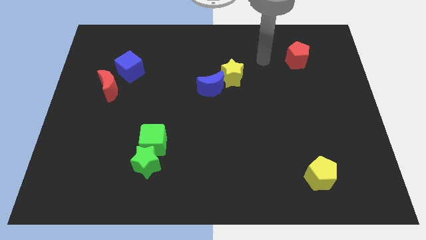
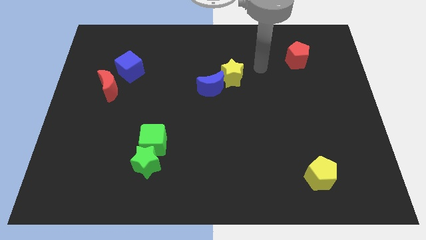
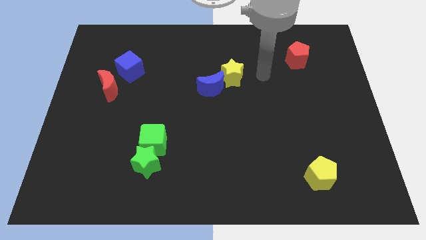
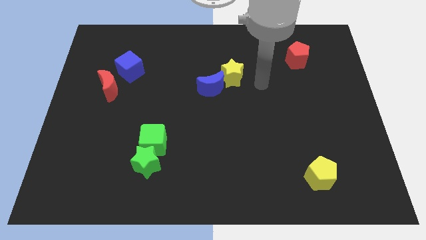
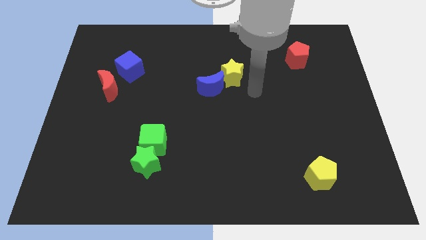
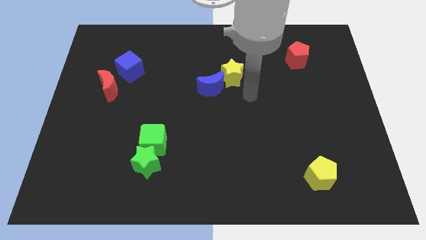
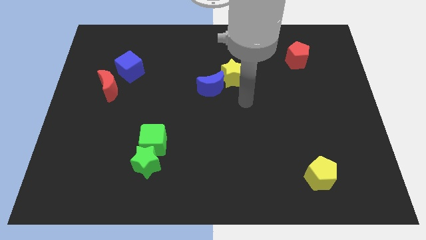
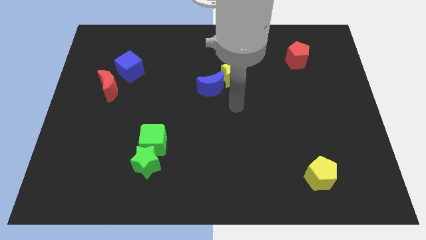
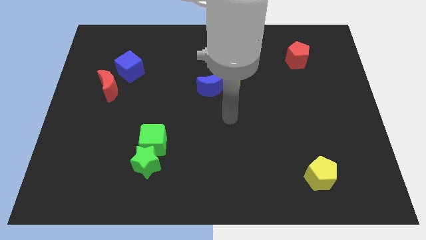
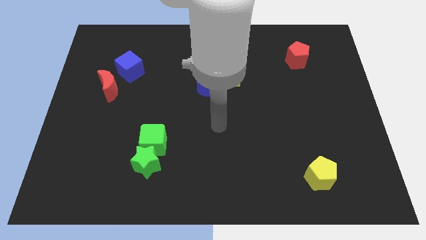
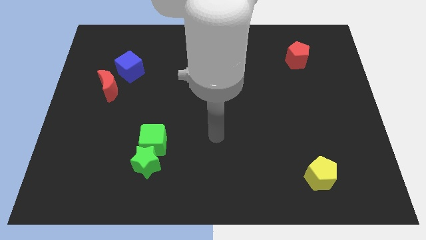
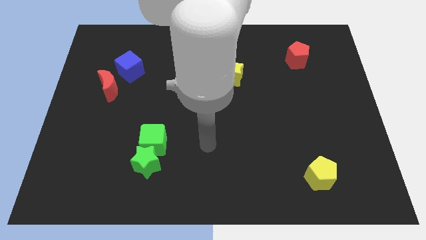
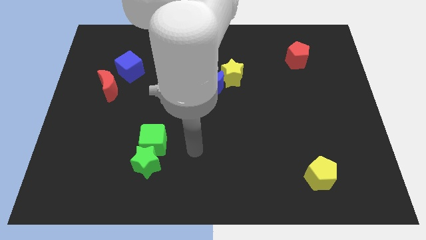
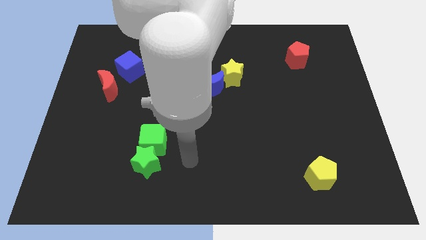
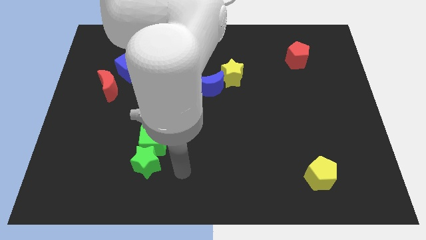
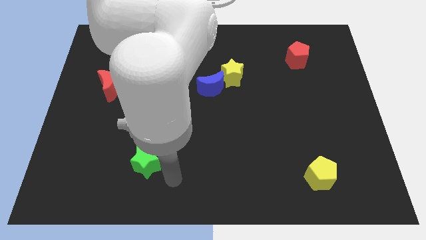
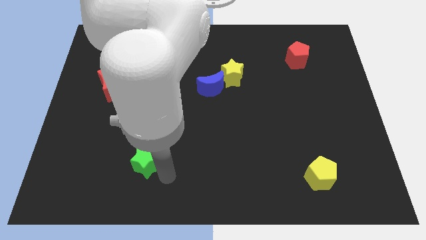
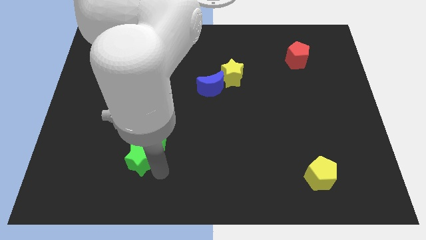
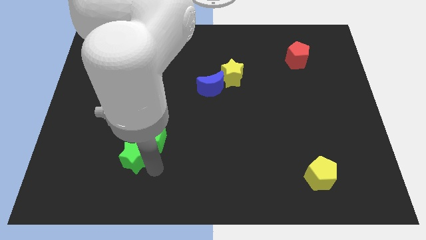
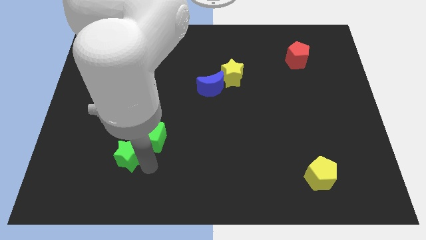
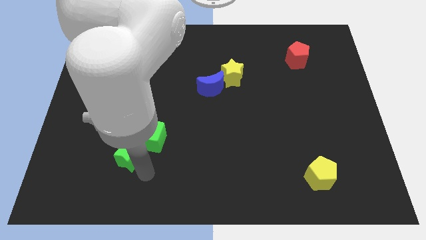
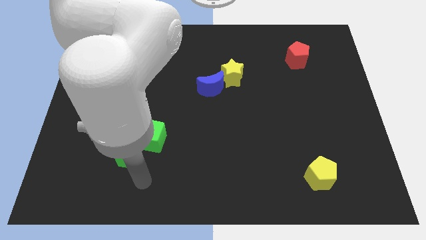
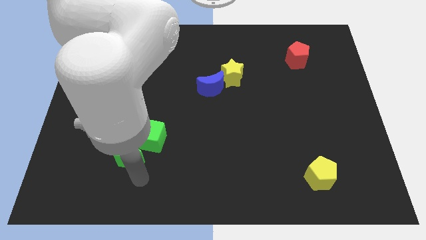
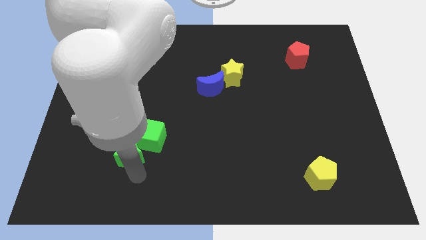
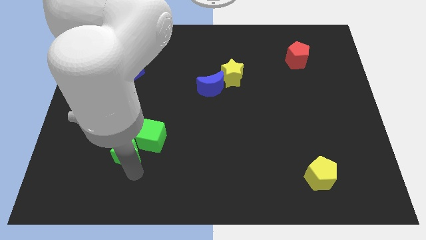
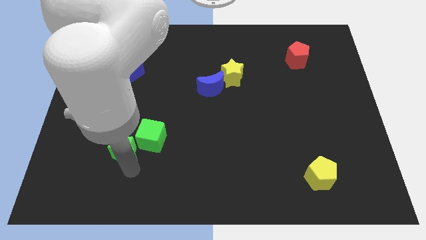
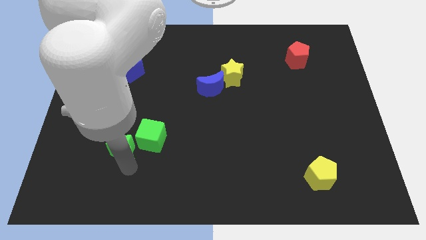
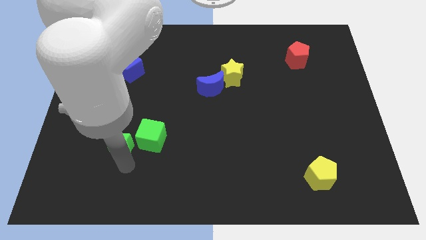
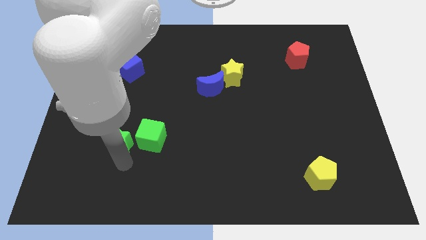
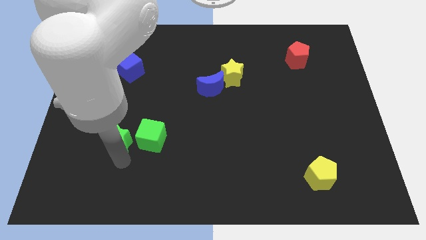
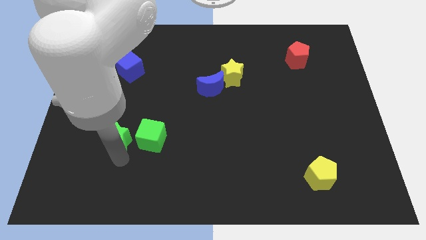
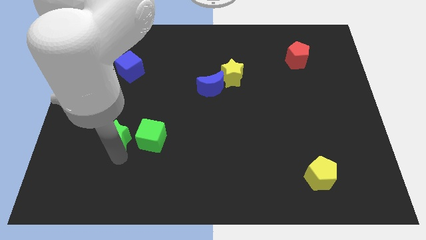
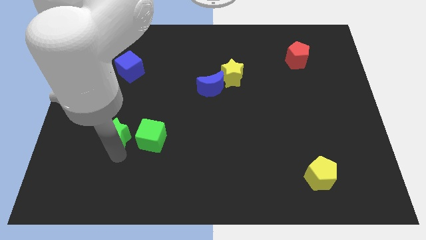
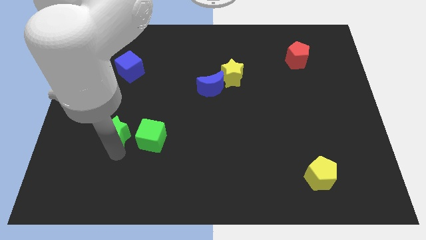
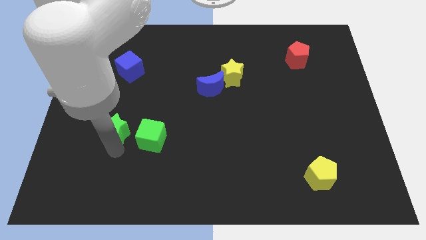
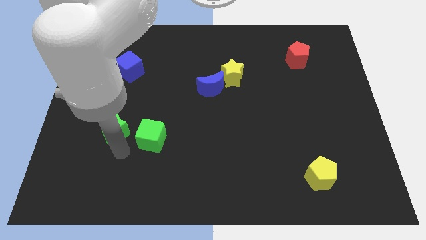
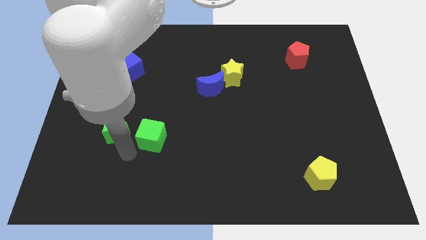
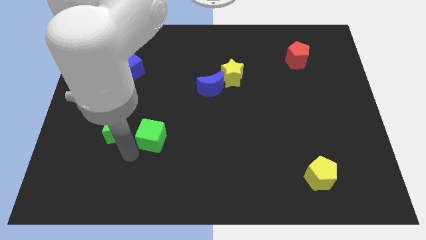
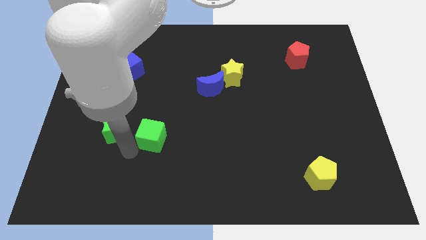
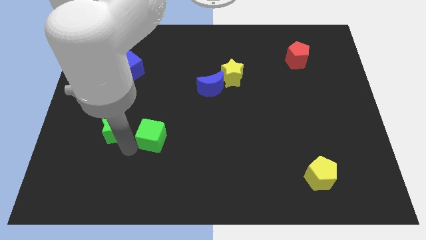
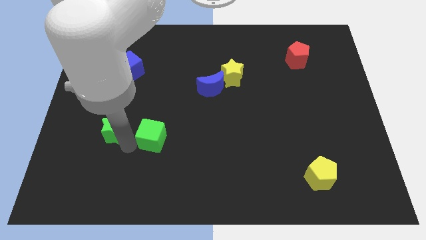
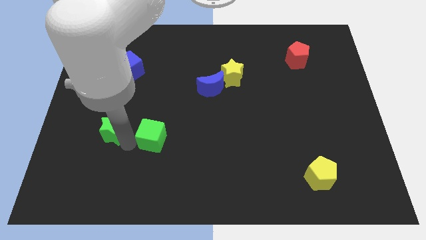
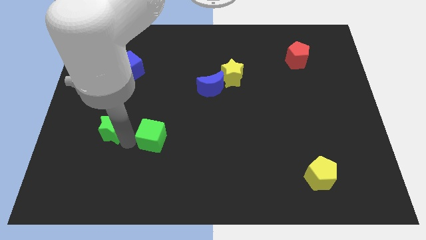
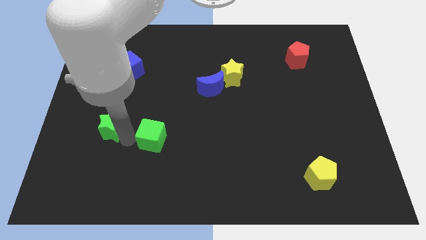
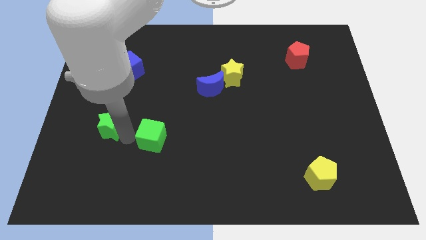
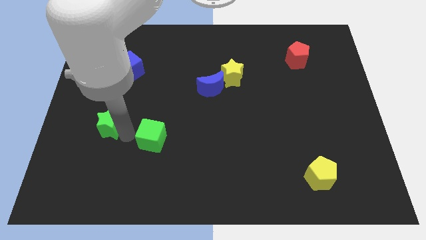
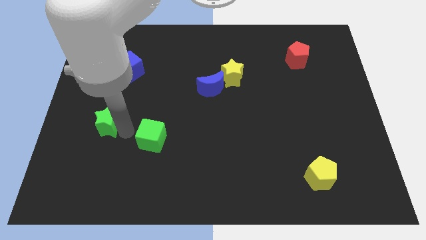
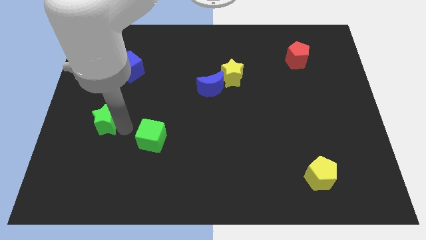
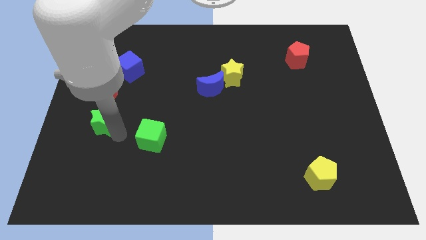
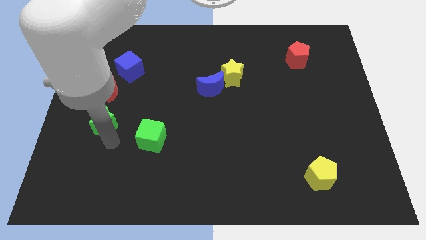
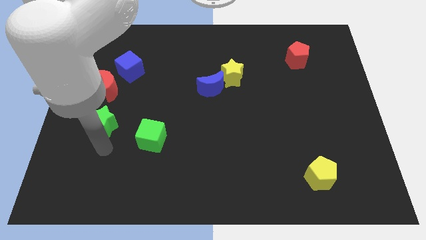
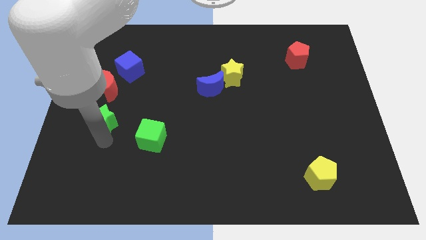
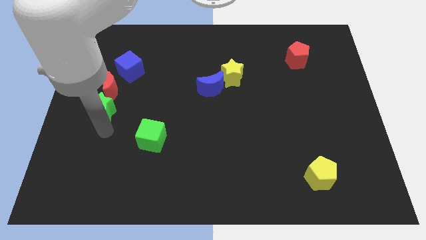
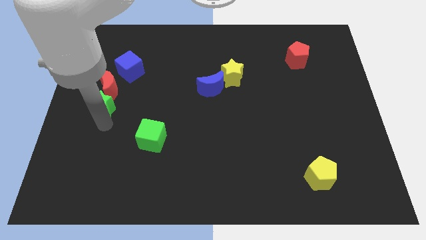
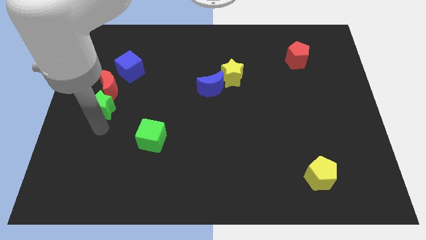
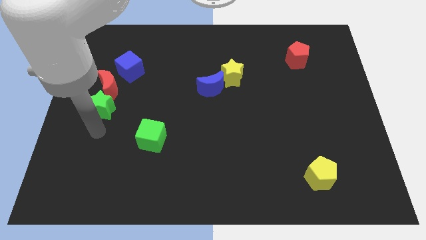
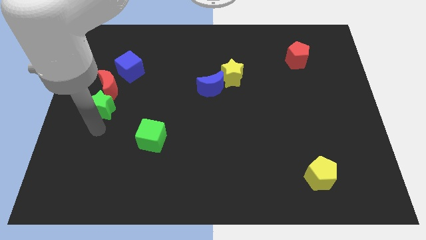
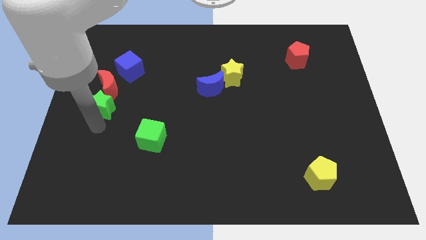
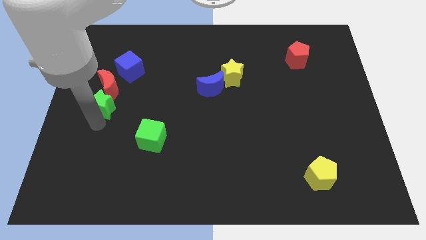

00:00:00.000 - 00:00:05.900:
put the green star close to the red moon

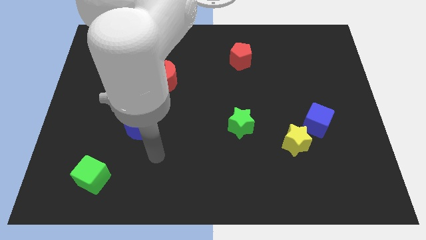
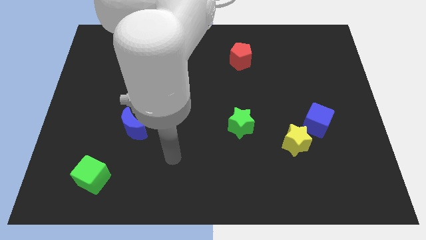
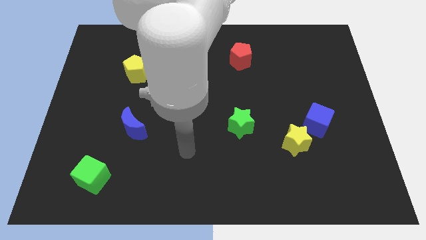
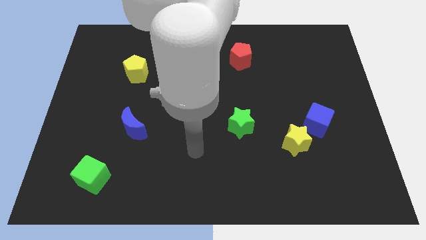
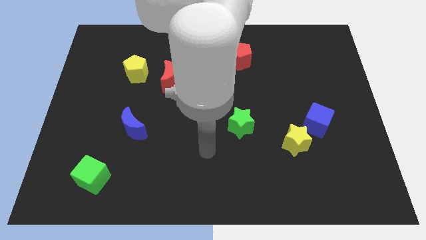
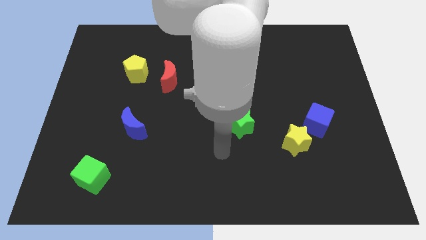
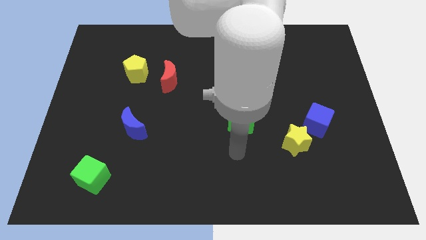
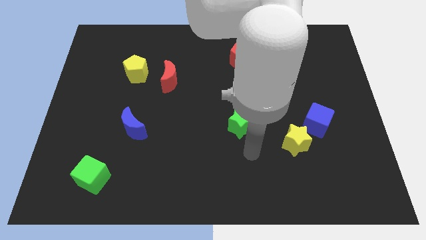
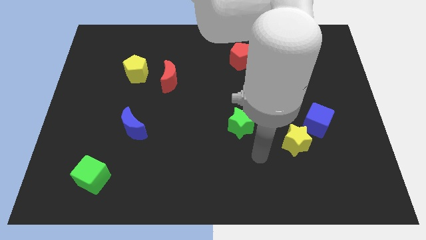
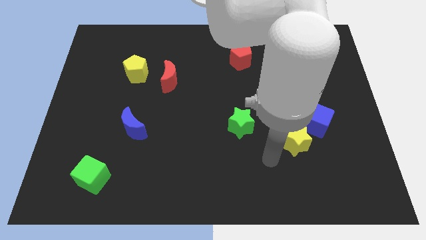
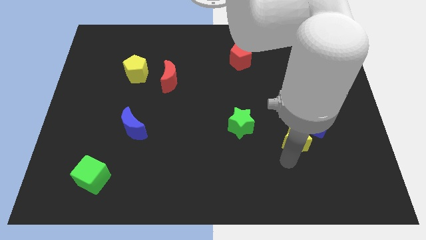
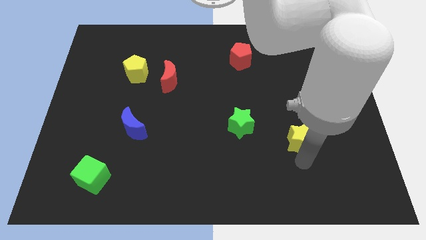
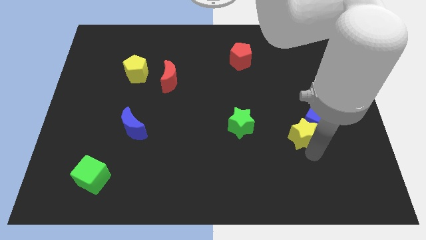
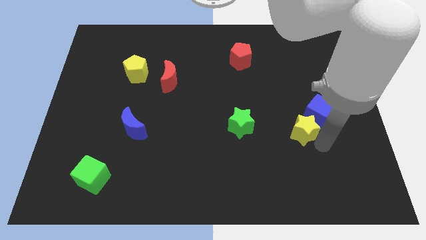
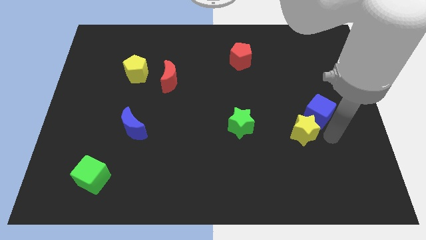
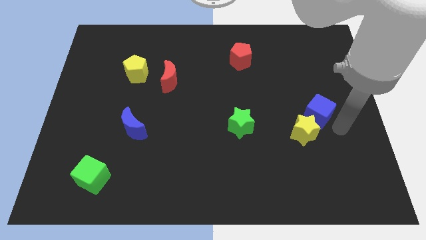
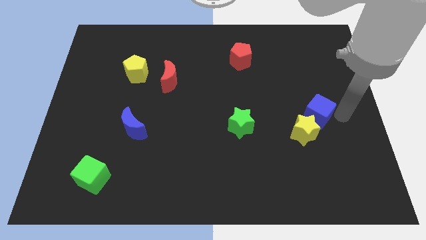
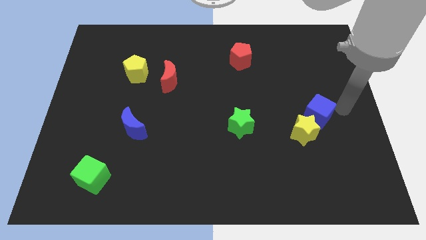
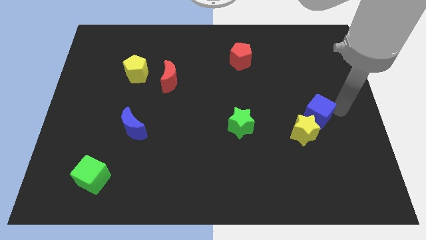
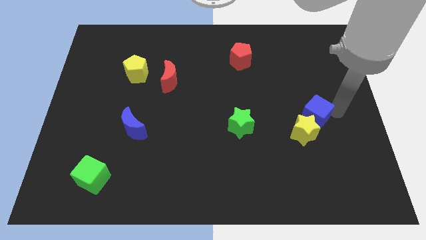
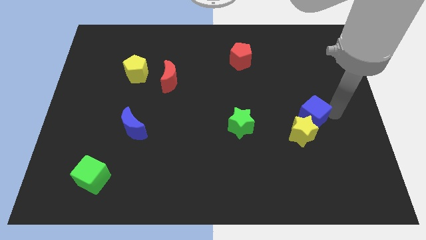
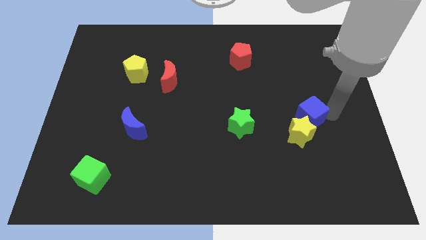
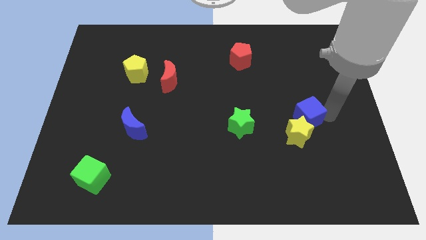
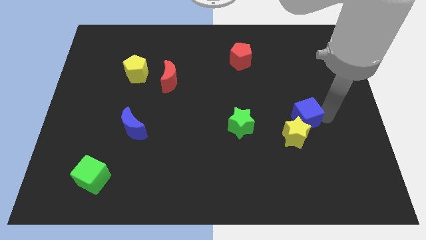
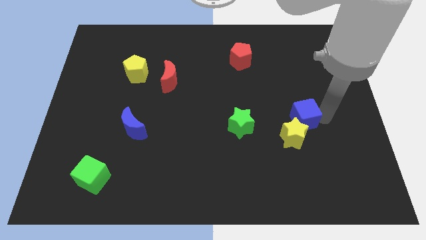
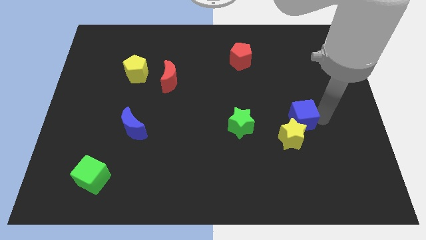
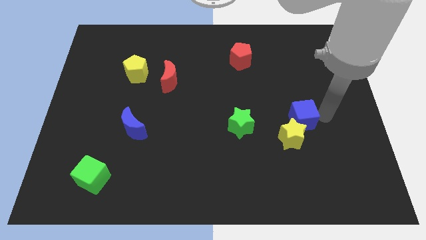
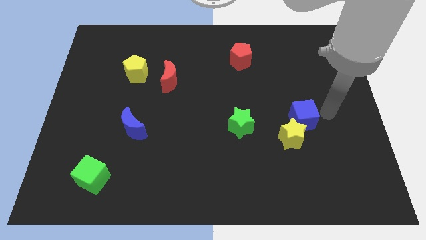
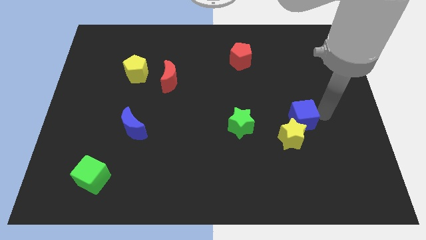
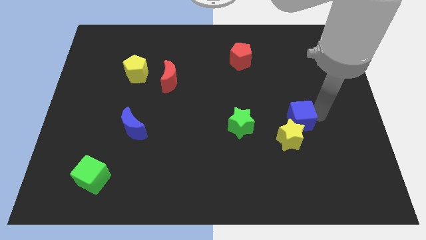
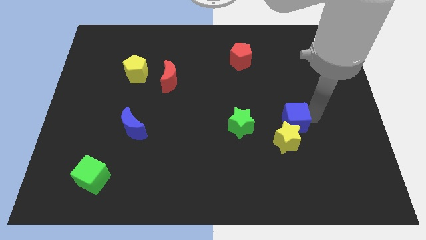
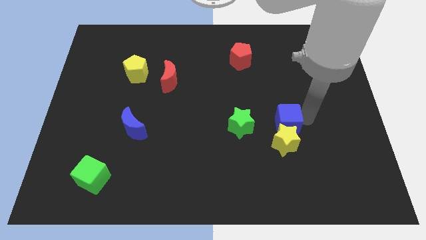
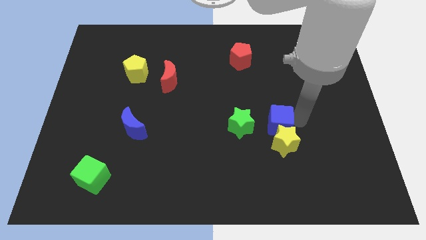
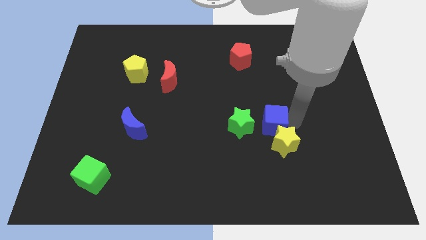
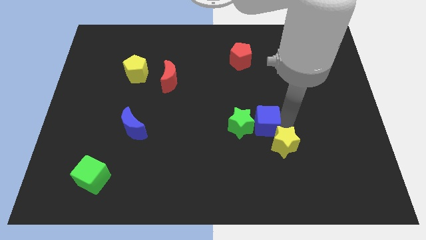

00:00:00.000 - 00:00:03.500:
slide the blue cube to the green star
